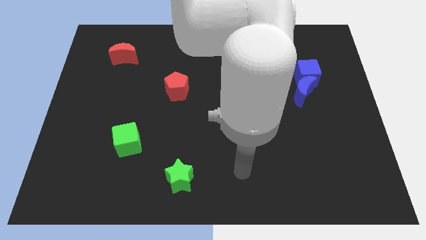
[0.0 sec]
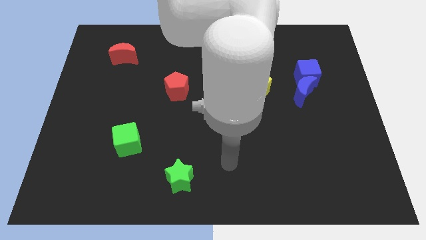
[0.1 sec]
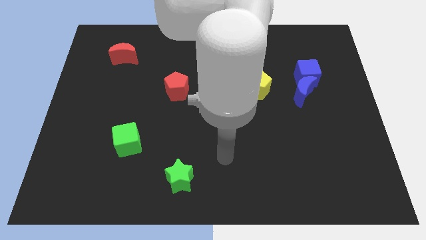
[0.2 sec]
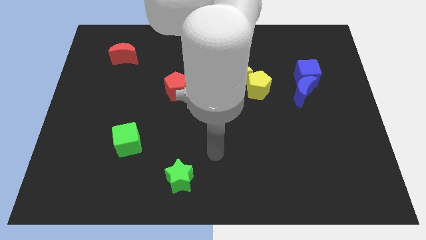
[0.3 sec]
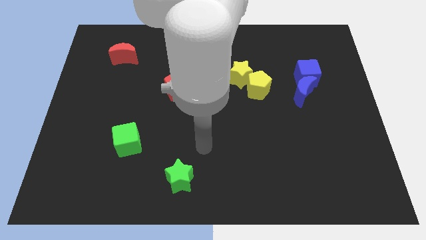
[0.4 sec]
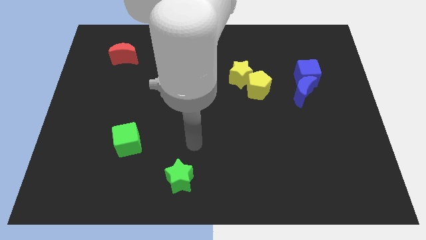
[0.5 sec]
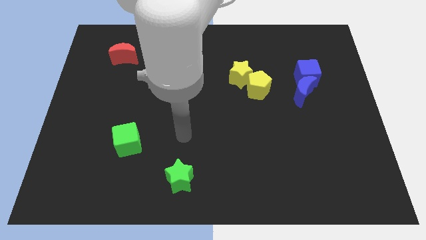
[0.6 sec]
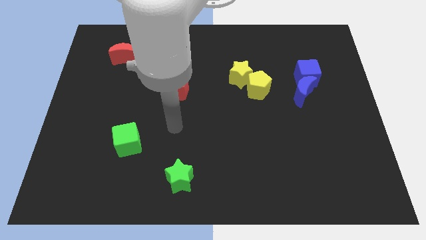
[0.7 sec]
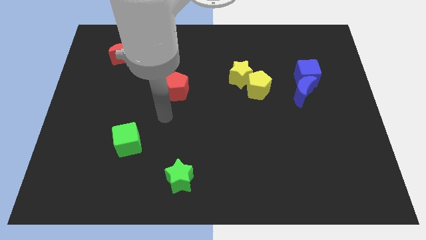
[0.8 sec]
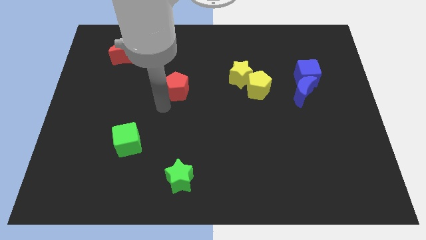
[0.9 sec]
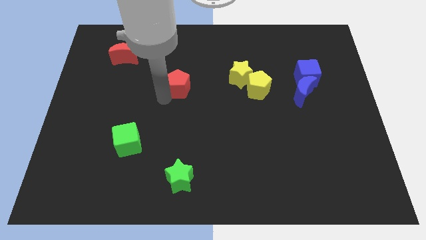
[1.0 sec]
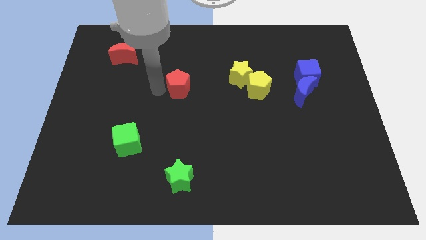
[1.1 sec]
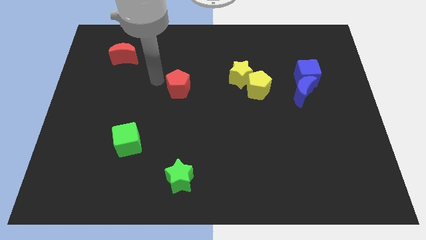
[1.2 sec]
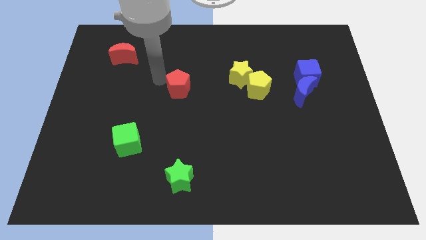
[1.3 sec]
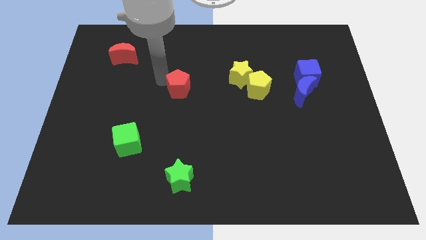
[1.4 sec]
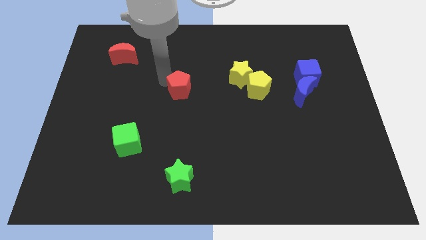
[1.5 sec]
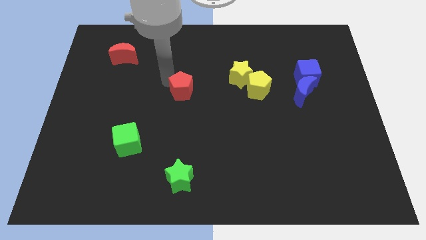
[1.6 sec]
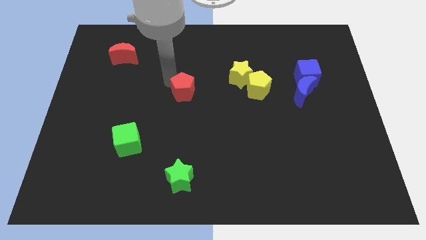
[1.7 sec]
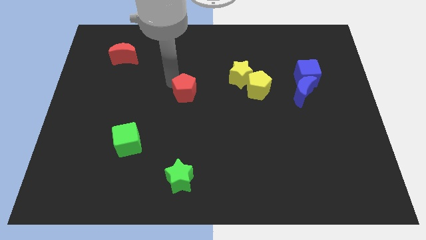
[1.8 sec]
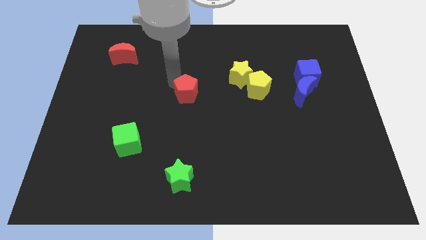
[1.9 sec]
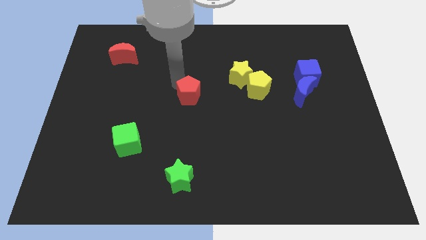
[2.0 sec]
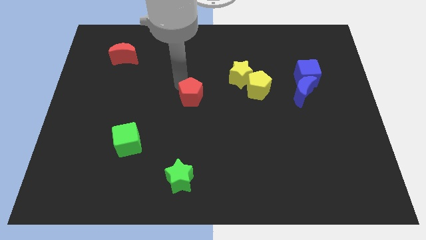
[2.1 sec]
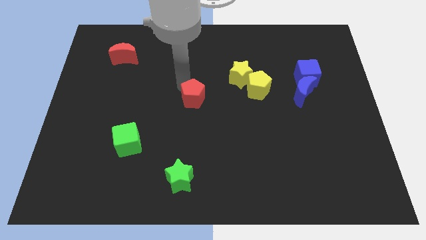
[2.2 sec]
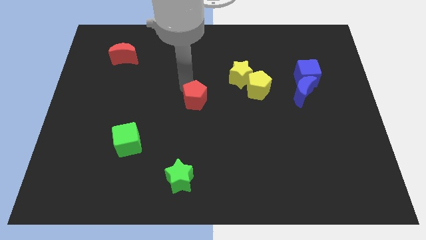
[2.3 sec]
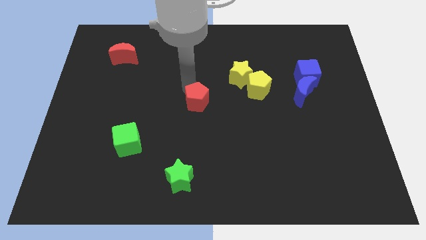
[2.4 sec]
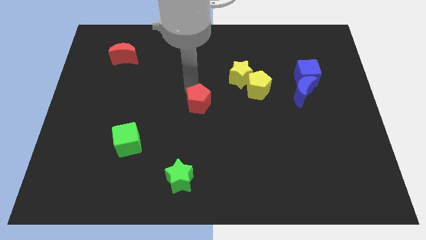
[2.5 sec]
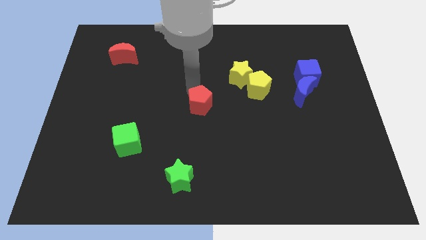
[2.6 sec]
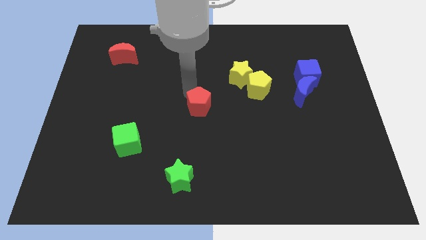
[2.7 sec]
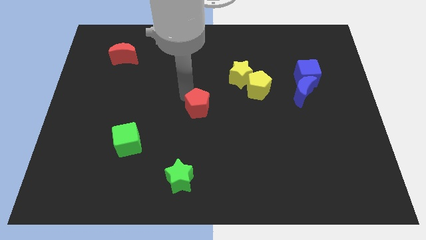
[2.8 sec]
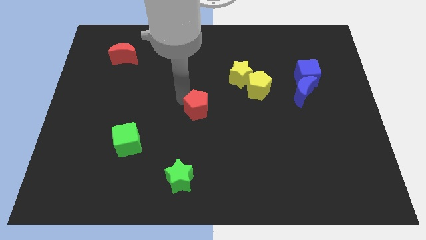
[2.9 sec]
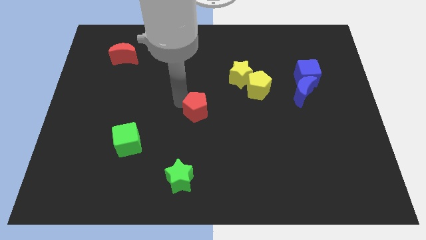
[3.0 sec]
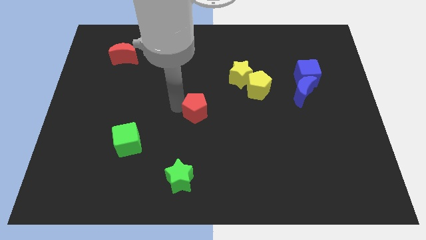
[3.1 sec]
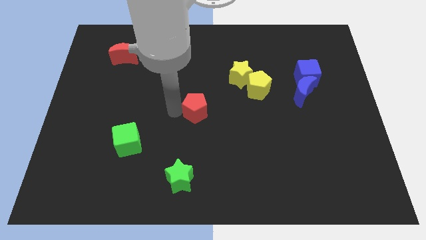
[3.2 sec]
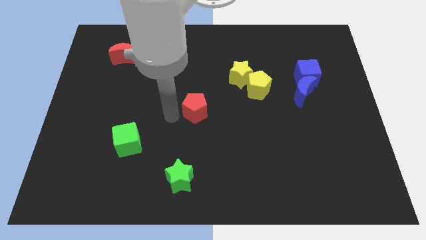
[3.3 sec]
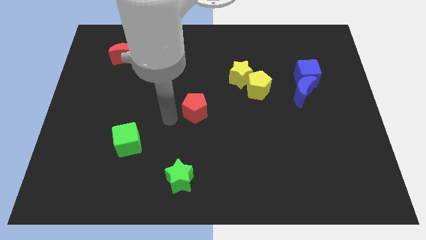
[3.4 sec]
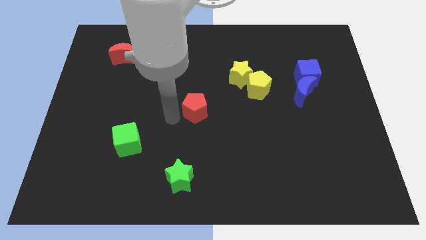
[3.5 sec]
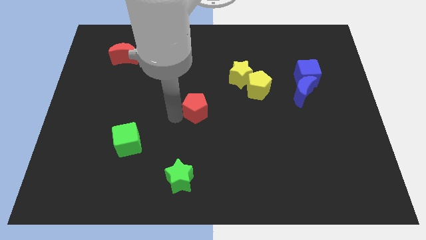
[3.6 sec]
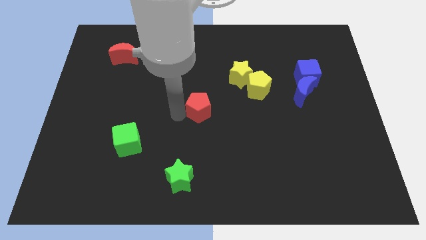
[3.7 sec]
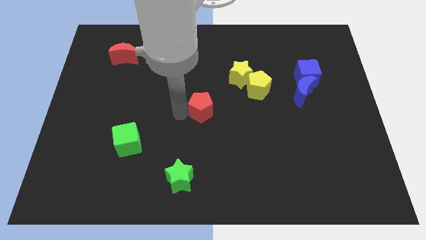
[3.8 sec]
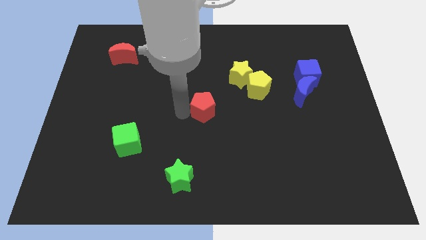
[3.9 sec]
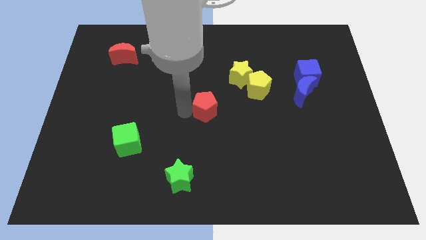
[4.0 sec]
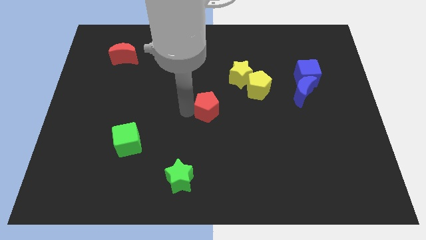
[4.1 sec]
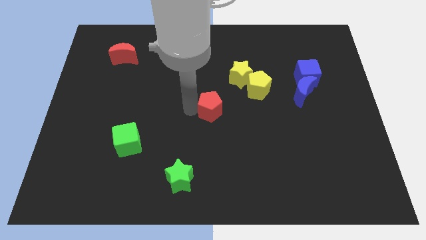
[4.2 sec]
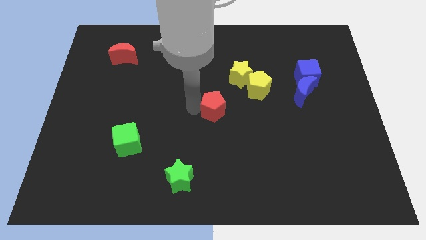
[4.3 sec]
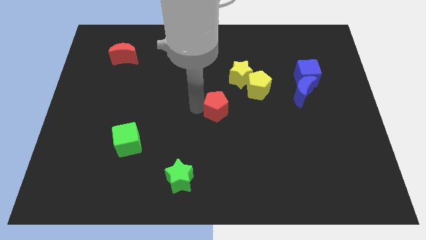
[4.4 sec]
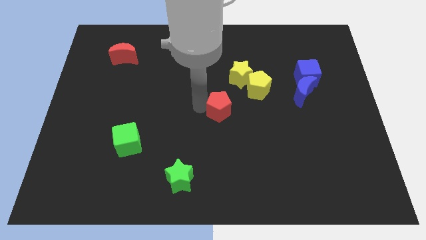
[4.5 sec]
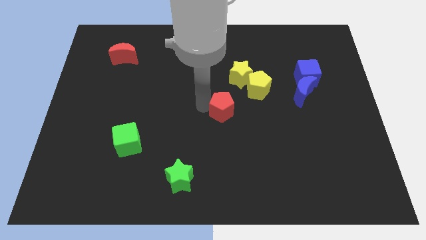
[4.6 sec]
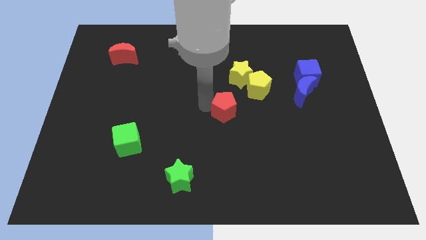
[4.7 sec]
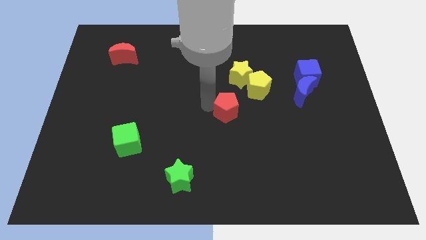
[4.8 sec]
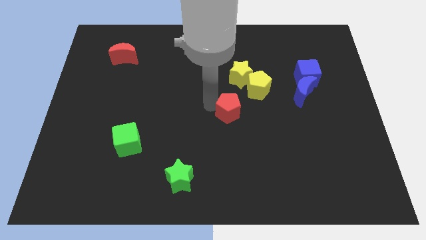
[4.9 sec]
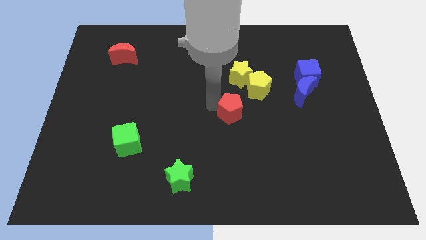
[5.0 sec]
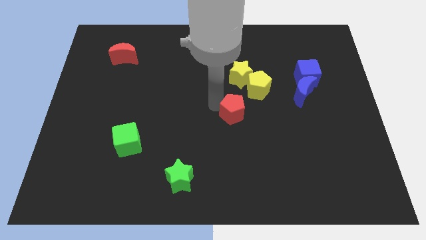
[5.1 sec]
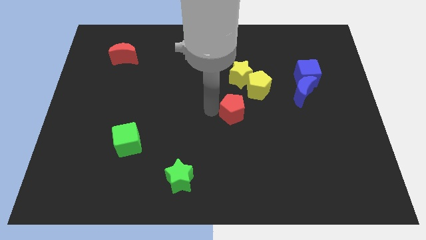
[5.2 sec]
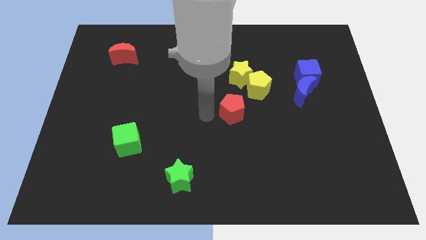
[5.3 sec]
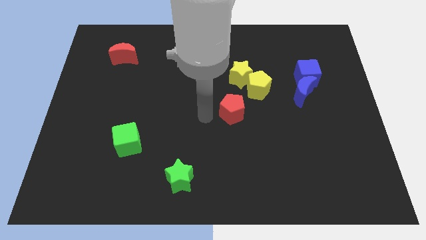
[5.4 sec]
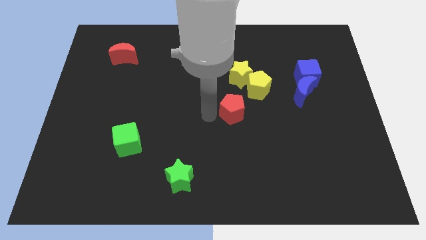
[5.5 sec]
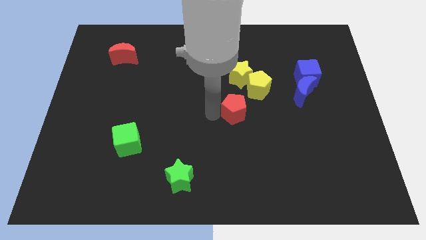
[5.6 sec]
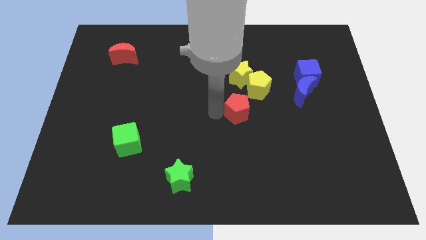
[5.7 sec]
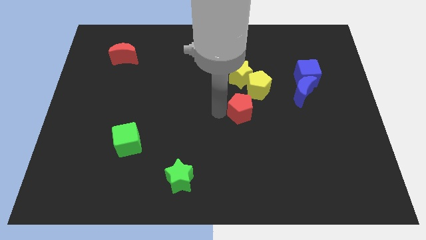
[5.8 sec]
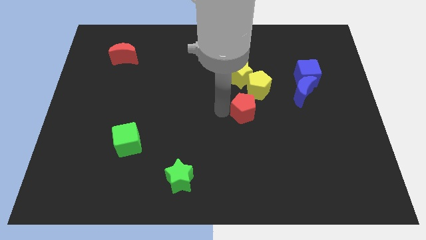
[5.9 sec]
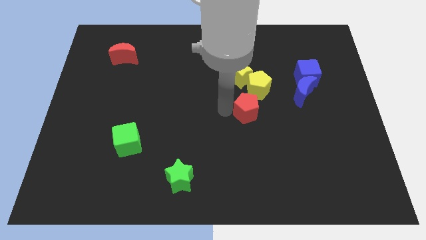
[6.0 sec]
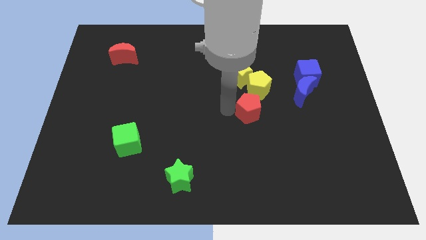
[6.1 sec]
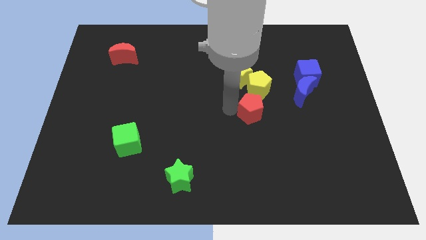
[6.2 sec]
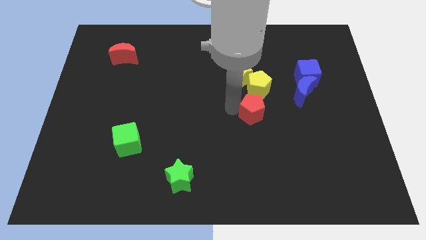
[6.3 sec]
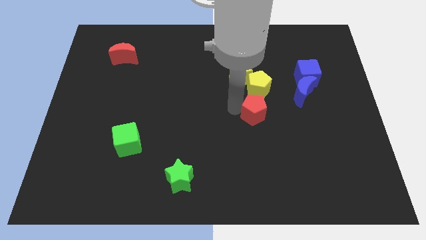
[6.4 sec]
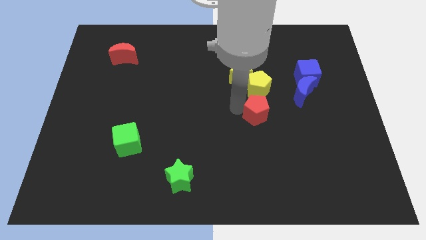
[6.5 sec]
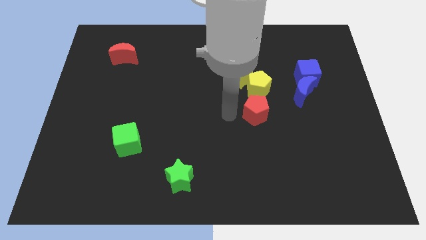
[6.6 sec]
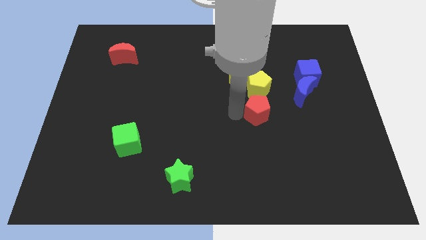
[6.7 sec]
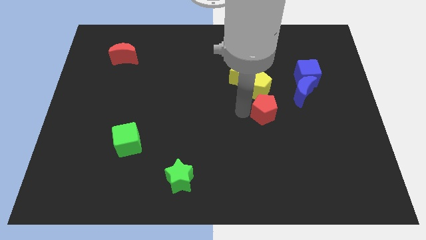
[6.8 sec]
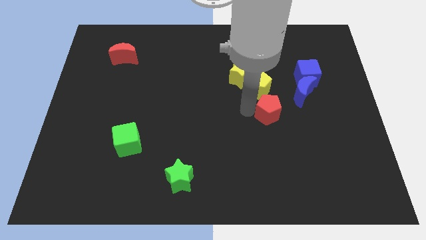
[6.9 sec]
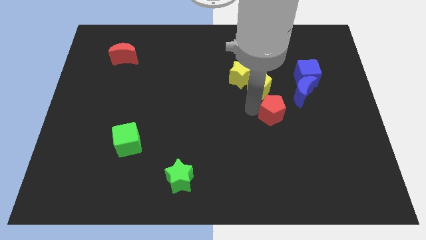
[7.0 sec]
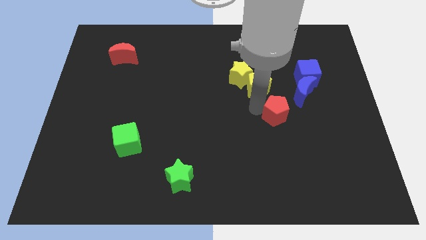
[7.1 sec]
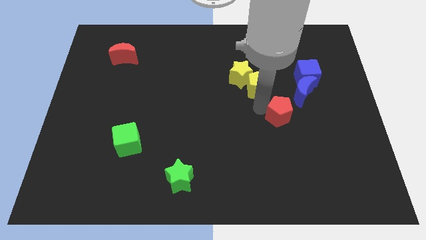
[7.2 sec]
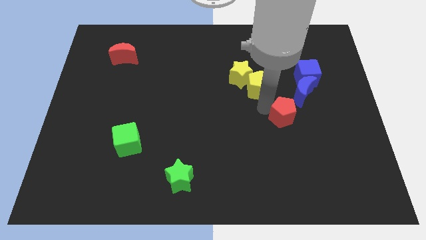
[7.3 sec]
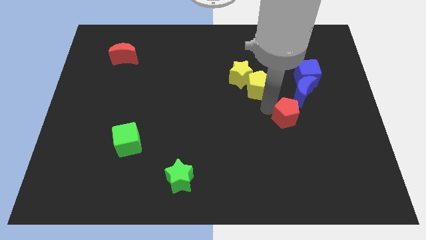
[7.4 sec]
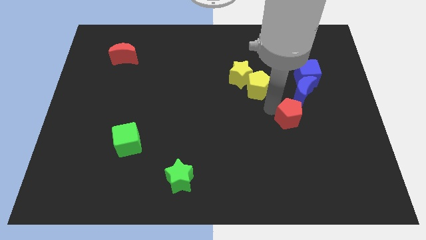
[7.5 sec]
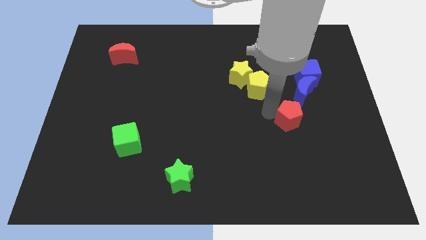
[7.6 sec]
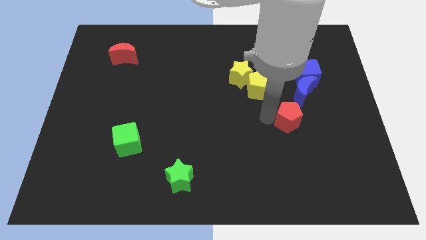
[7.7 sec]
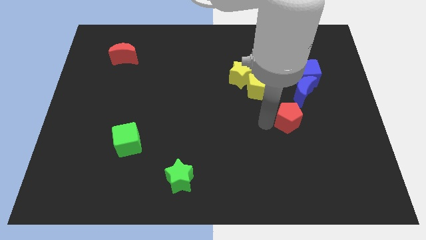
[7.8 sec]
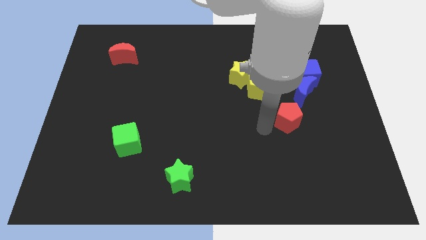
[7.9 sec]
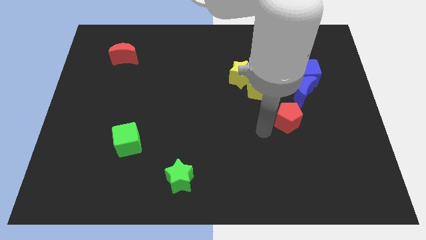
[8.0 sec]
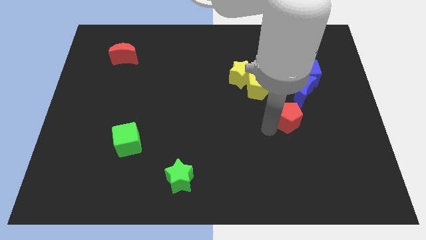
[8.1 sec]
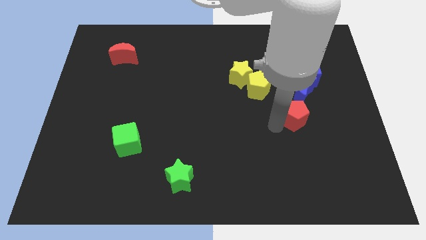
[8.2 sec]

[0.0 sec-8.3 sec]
put the red pentagon to the bottom of the blue cube
